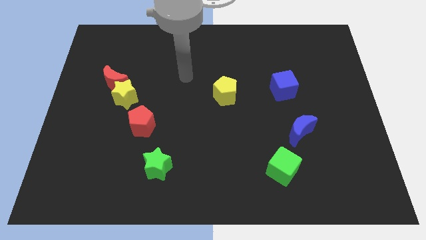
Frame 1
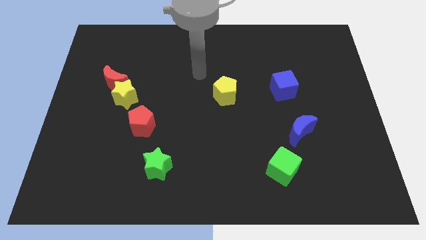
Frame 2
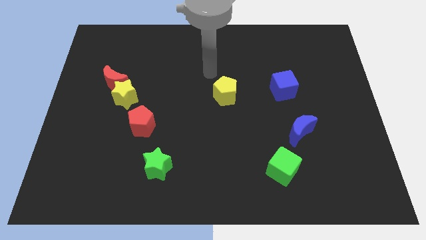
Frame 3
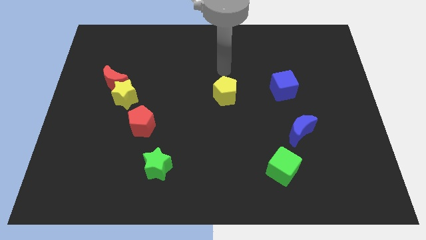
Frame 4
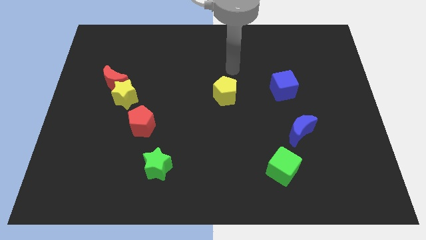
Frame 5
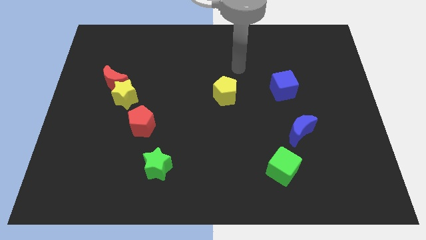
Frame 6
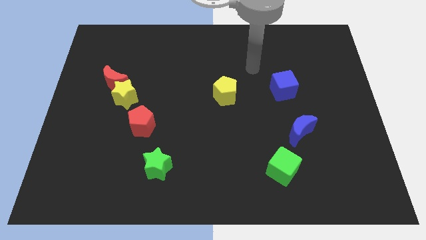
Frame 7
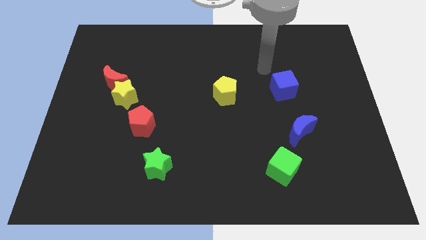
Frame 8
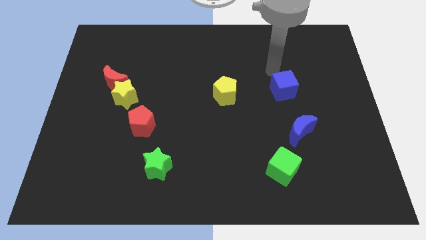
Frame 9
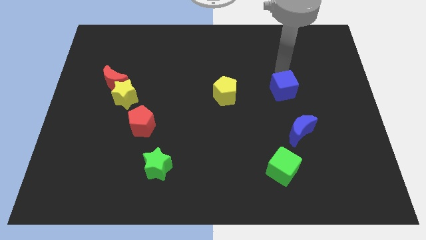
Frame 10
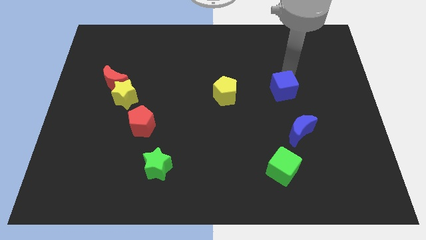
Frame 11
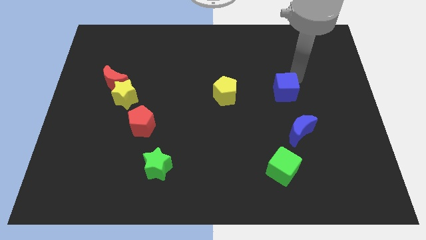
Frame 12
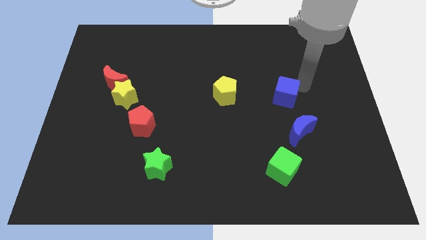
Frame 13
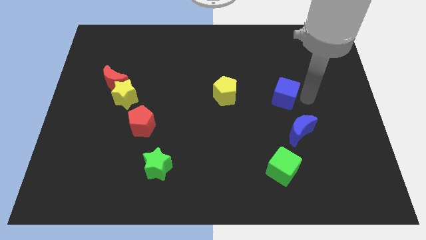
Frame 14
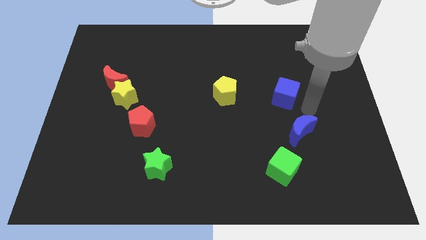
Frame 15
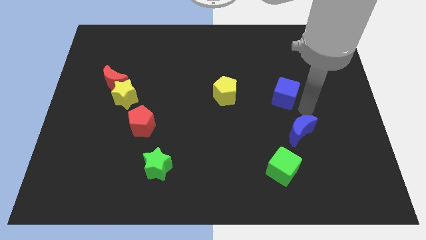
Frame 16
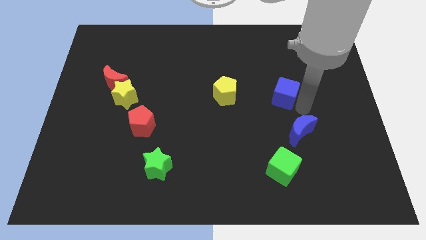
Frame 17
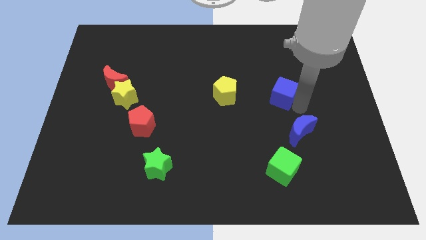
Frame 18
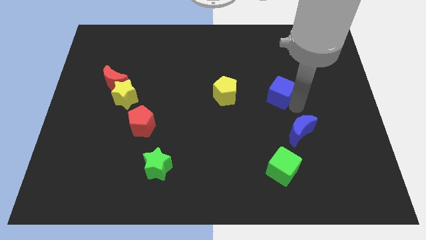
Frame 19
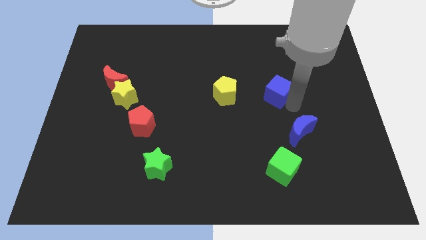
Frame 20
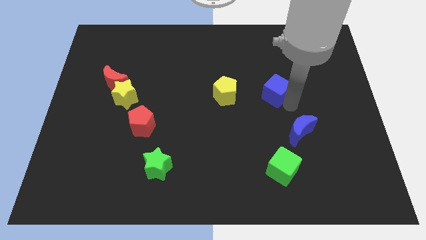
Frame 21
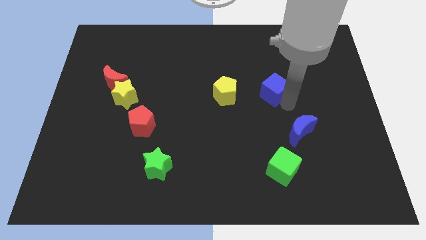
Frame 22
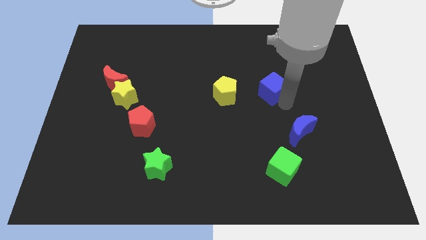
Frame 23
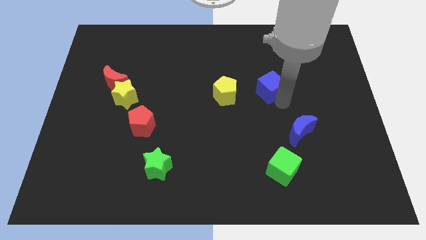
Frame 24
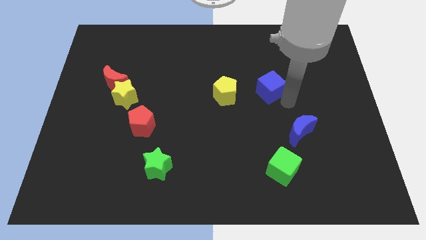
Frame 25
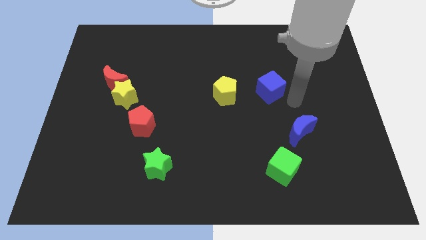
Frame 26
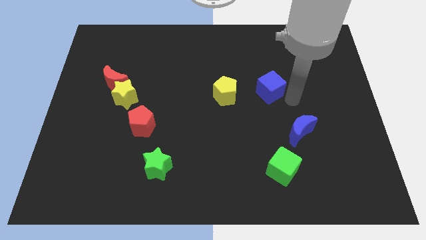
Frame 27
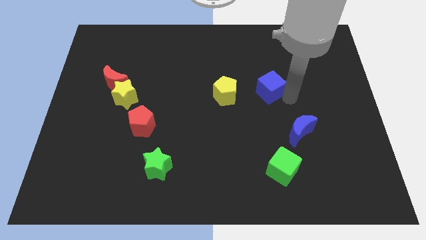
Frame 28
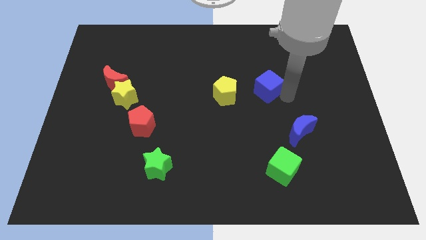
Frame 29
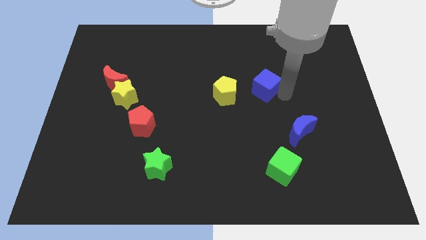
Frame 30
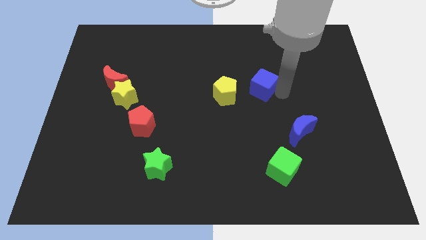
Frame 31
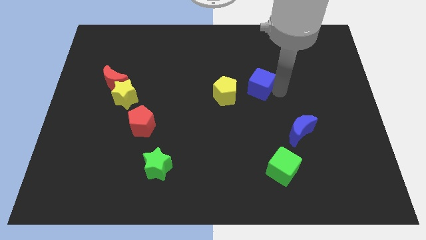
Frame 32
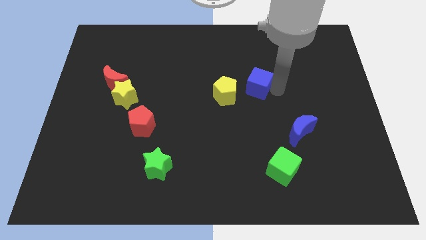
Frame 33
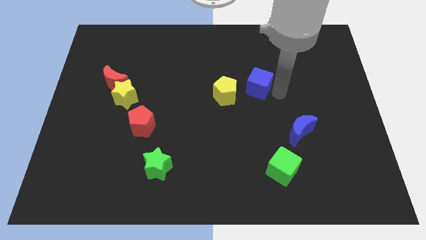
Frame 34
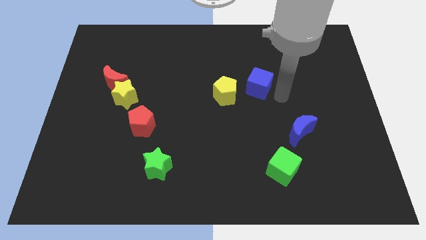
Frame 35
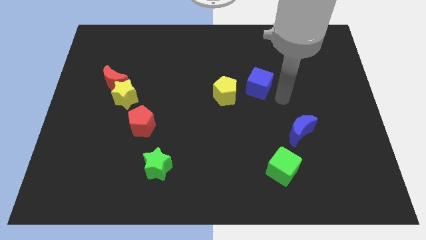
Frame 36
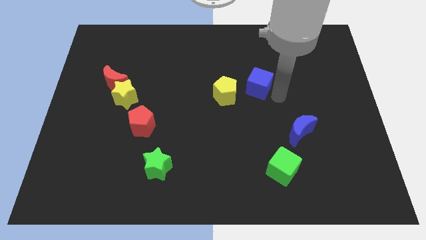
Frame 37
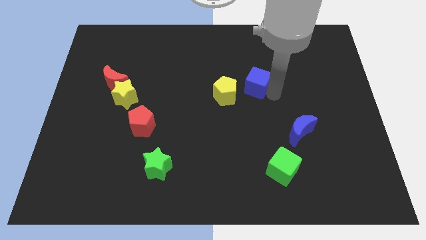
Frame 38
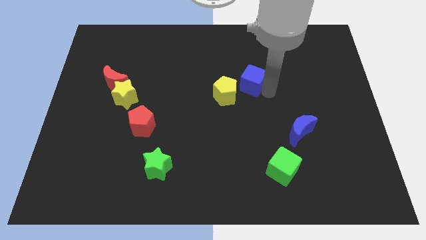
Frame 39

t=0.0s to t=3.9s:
slightly move the blue cube to the left

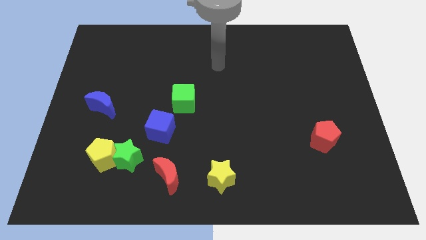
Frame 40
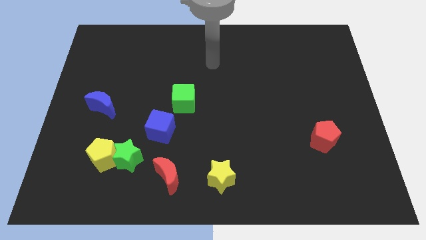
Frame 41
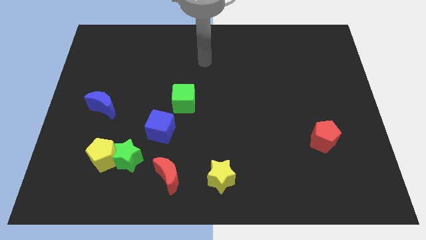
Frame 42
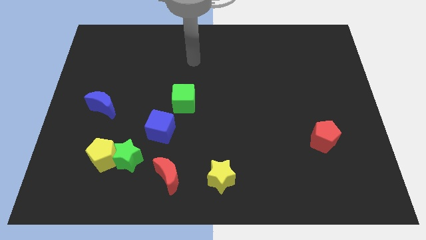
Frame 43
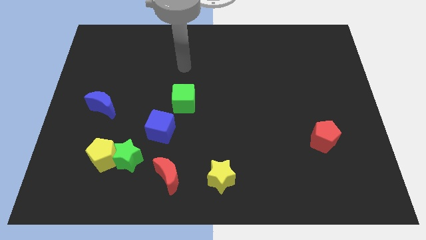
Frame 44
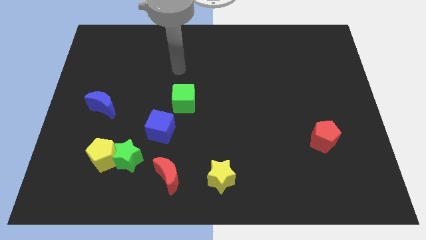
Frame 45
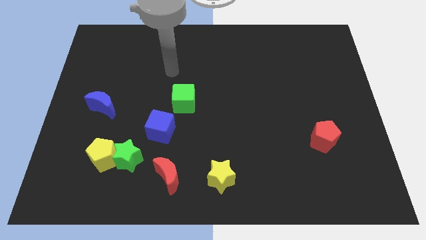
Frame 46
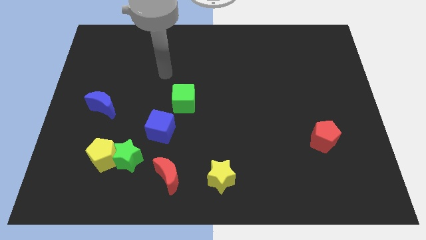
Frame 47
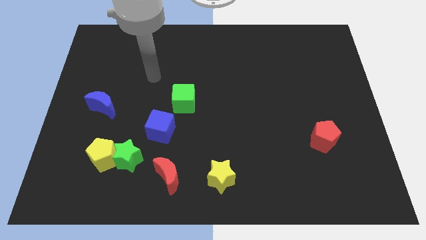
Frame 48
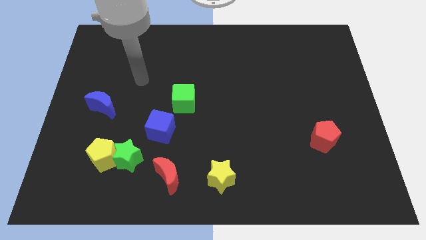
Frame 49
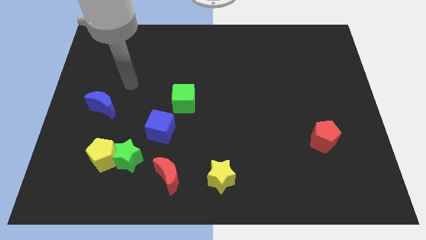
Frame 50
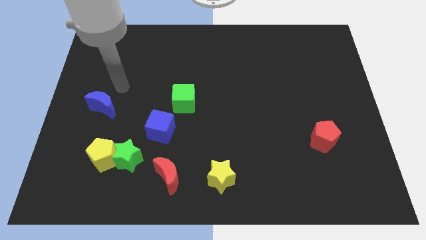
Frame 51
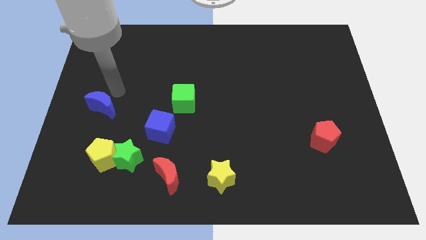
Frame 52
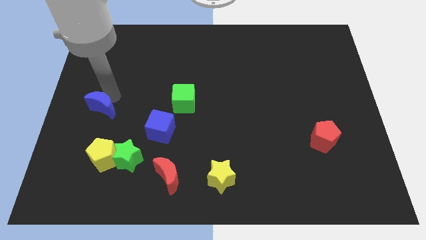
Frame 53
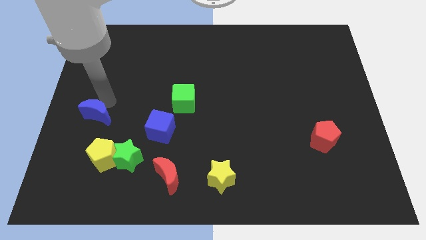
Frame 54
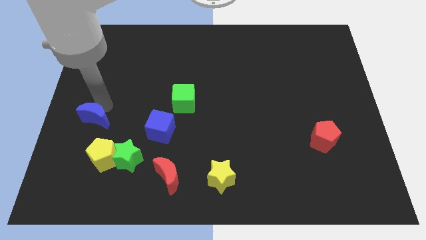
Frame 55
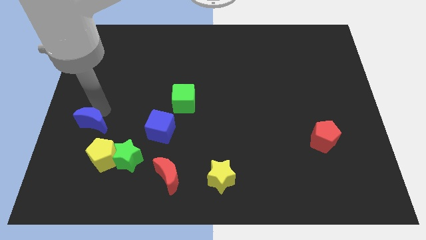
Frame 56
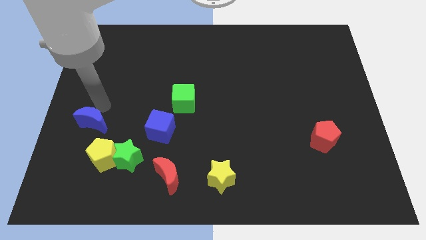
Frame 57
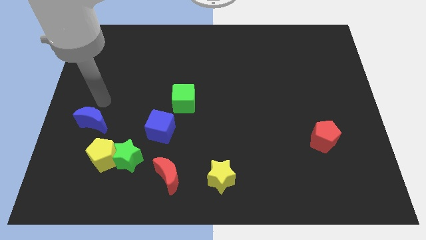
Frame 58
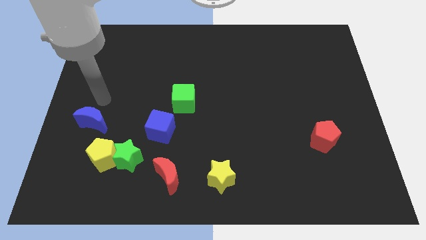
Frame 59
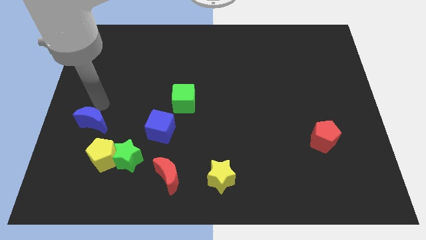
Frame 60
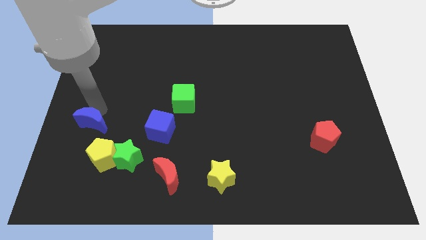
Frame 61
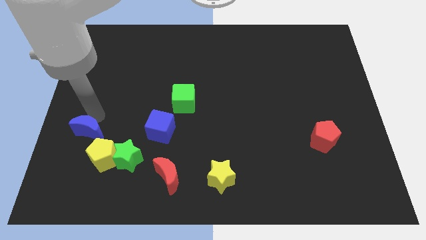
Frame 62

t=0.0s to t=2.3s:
move the blue moon downwards a little bit

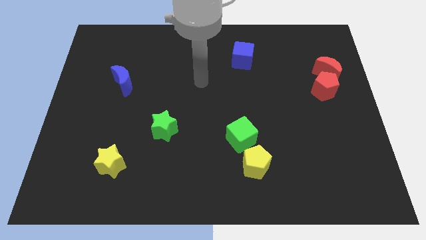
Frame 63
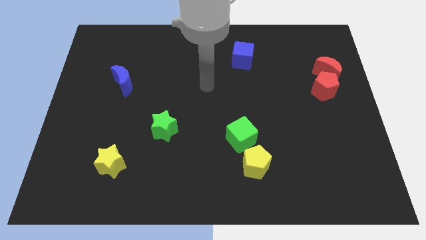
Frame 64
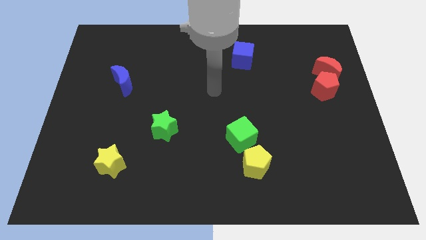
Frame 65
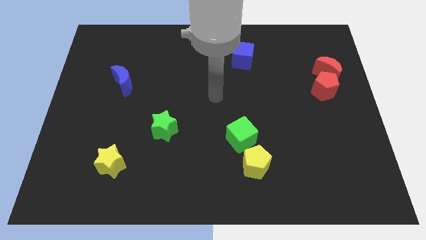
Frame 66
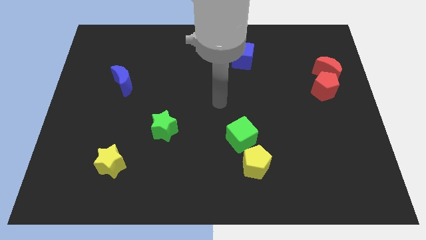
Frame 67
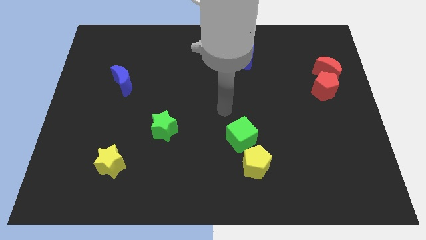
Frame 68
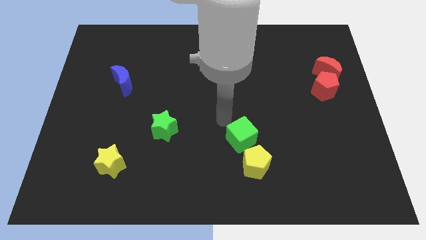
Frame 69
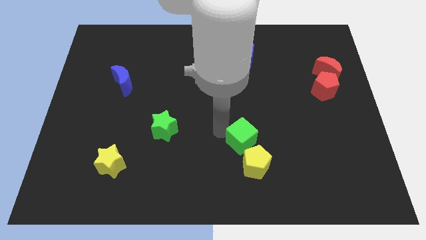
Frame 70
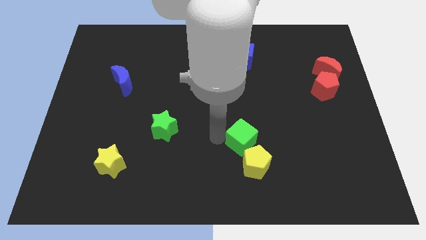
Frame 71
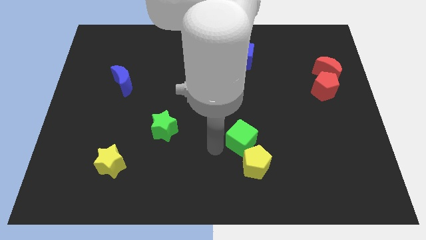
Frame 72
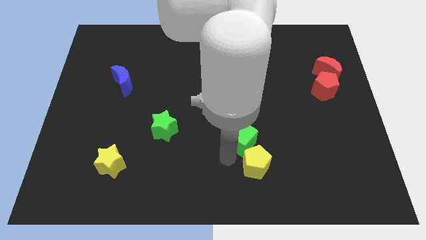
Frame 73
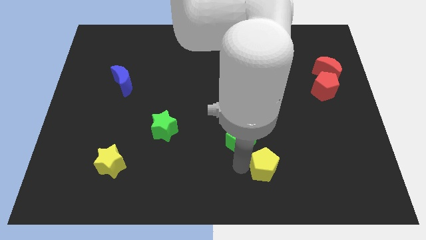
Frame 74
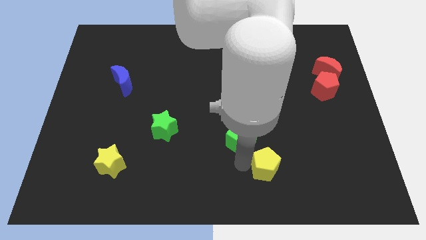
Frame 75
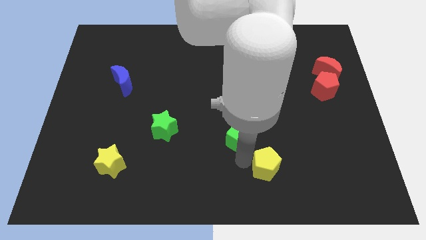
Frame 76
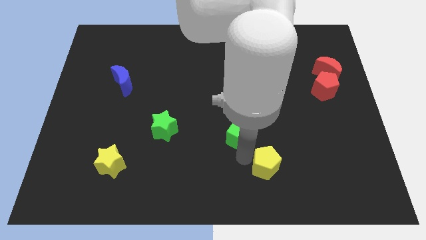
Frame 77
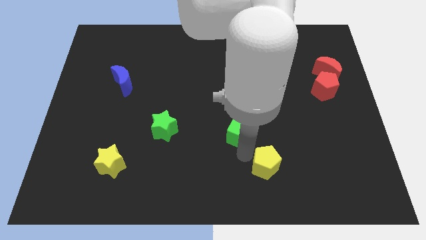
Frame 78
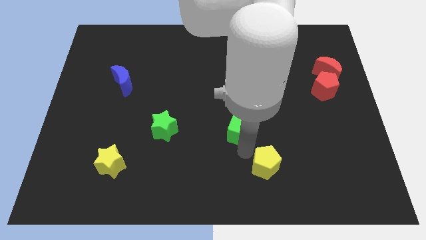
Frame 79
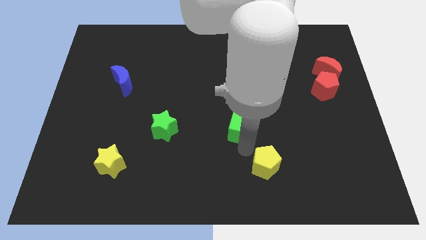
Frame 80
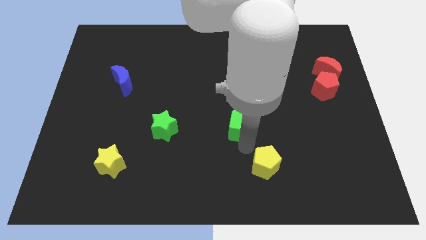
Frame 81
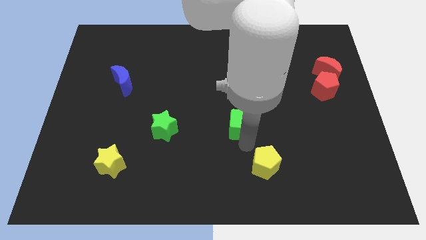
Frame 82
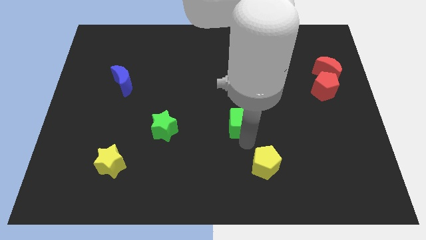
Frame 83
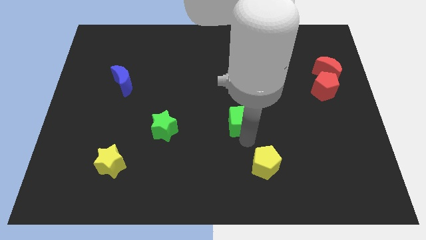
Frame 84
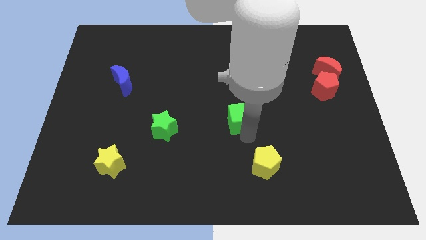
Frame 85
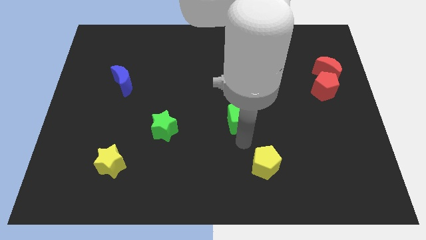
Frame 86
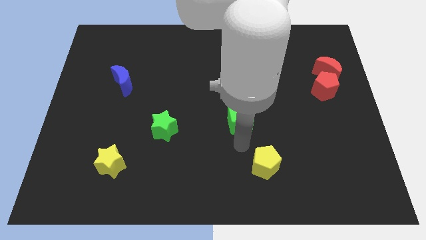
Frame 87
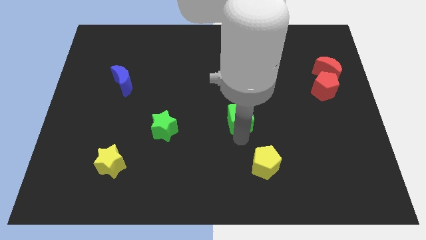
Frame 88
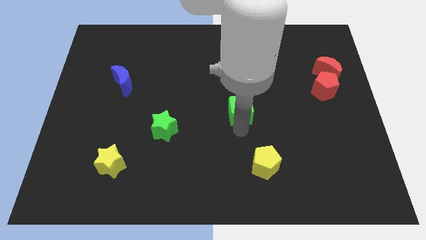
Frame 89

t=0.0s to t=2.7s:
slightly push the green cube up
